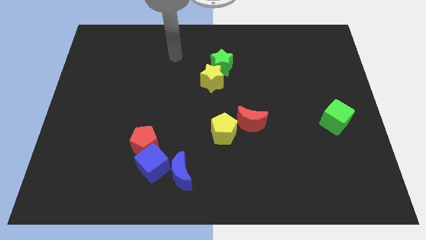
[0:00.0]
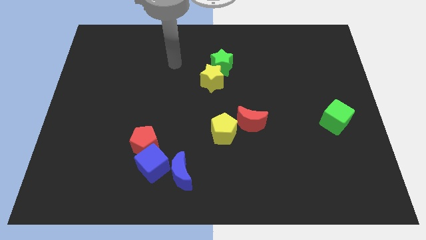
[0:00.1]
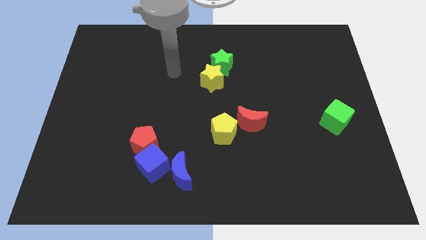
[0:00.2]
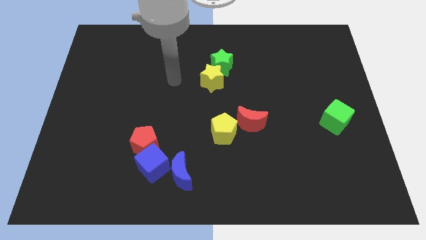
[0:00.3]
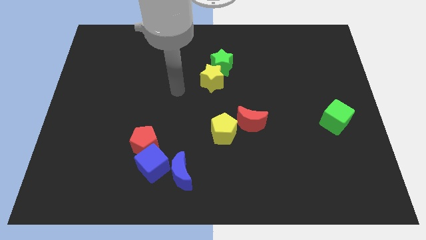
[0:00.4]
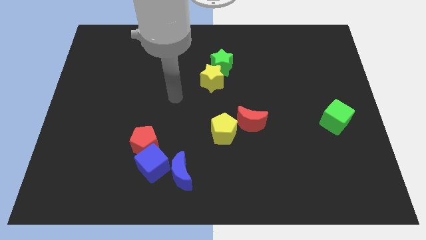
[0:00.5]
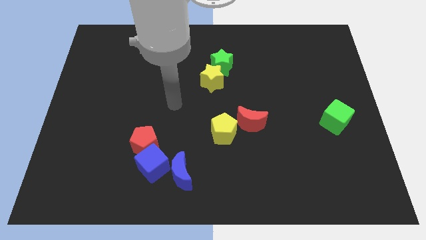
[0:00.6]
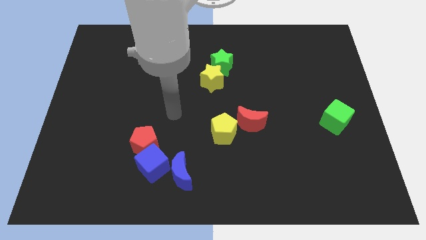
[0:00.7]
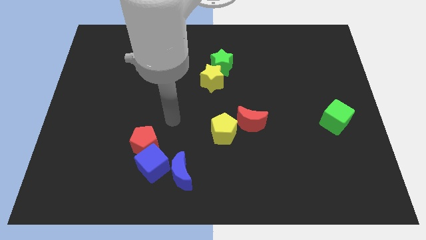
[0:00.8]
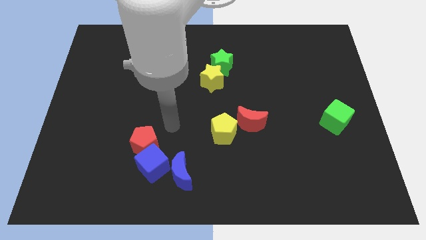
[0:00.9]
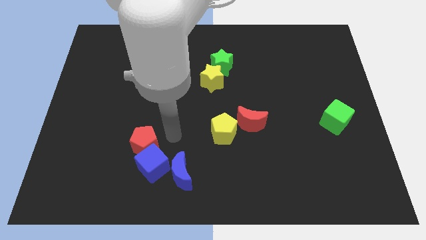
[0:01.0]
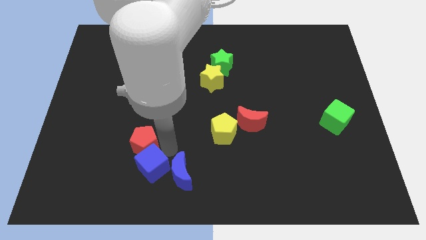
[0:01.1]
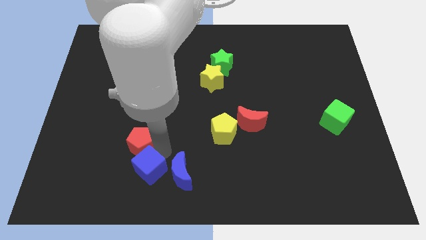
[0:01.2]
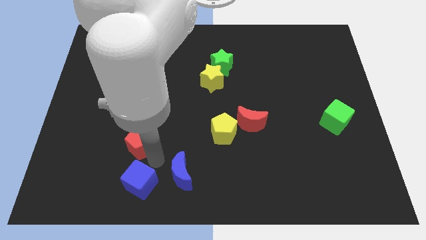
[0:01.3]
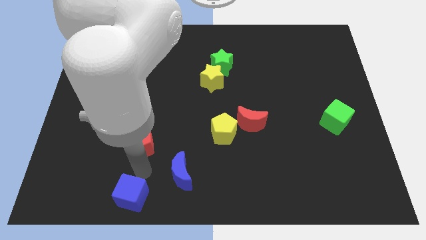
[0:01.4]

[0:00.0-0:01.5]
move the red pentagon away from the blue cube

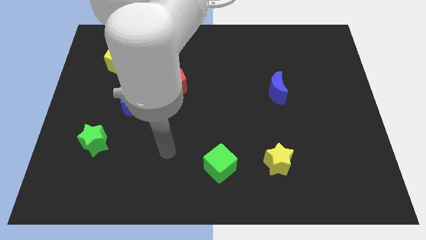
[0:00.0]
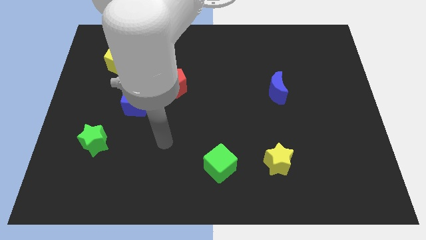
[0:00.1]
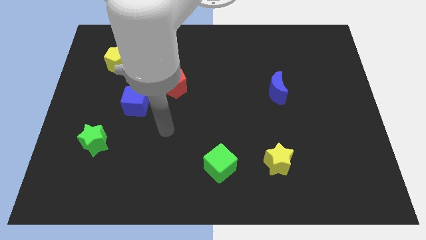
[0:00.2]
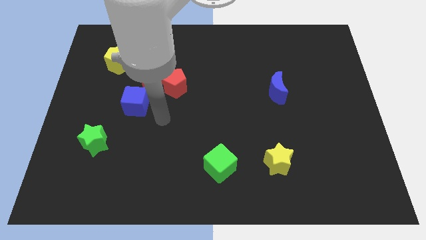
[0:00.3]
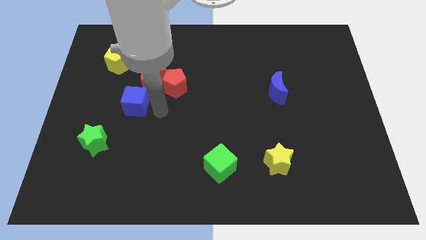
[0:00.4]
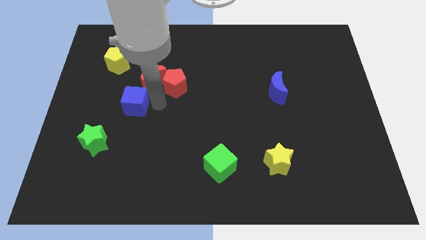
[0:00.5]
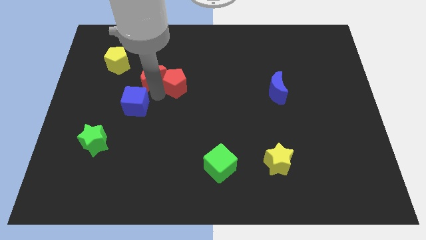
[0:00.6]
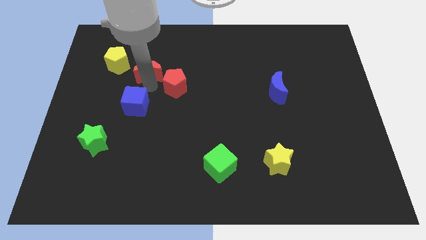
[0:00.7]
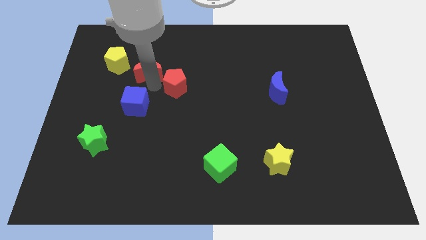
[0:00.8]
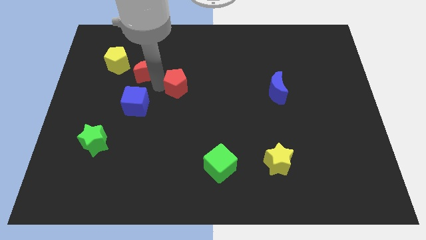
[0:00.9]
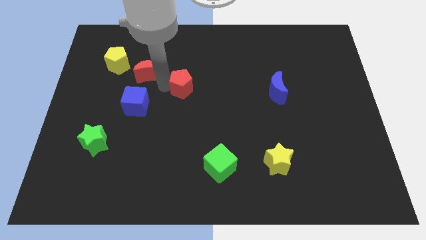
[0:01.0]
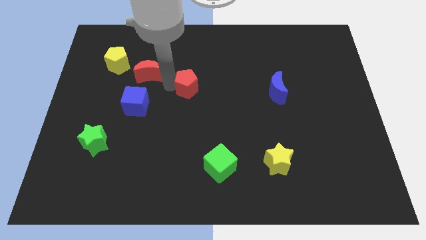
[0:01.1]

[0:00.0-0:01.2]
move the red pentagon away from the red moon

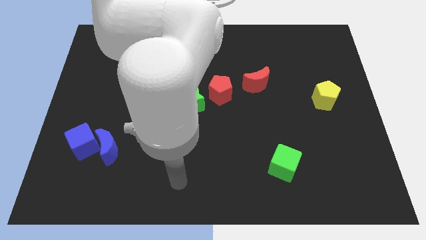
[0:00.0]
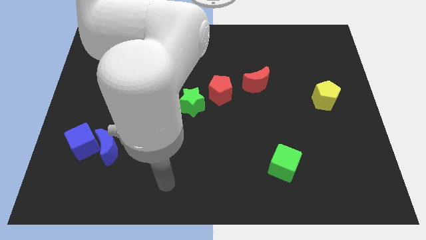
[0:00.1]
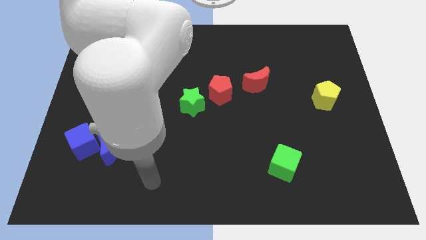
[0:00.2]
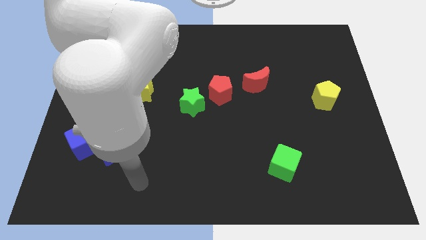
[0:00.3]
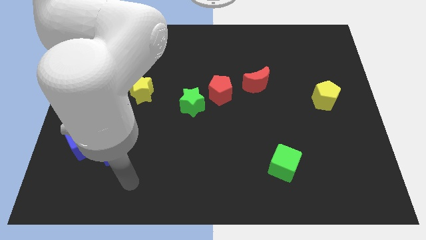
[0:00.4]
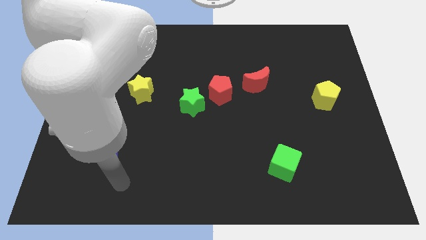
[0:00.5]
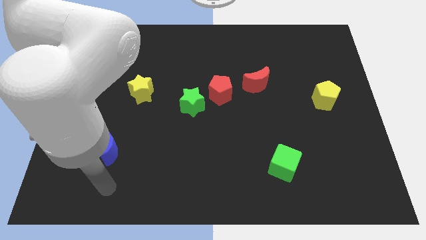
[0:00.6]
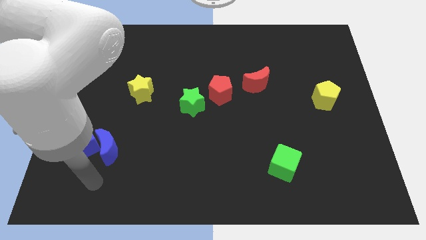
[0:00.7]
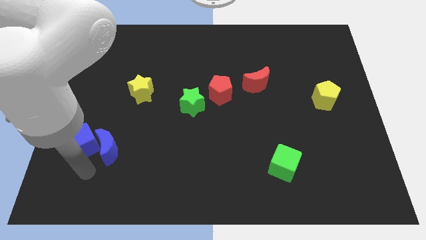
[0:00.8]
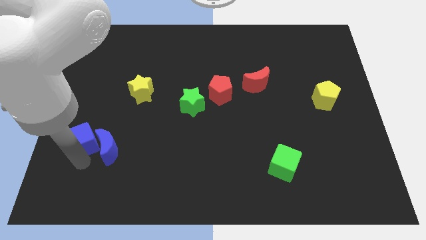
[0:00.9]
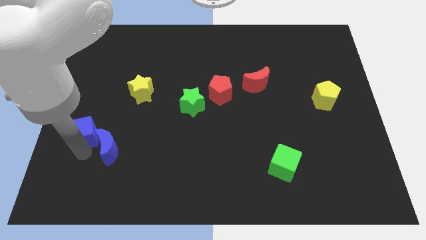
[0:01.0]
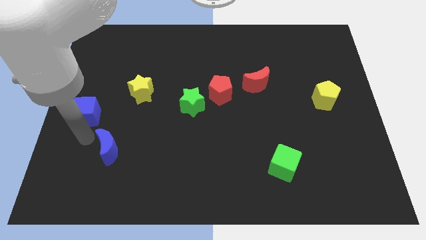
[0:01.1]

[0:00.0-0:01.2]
pull the blue moon apart from the blue cube

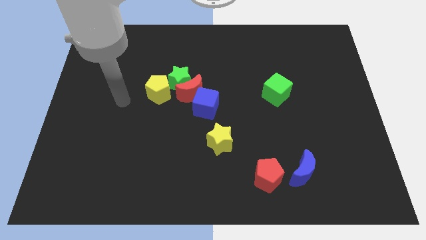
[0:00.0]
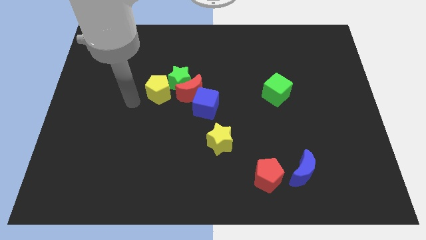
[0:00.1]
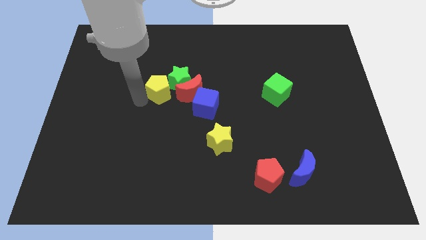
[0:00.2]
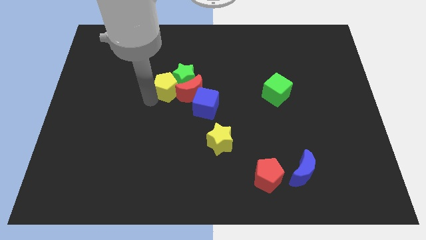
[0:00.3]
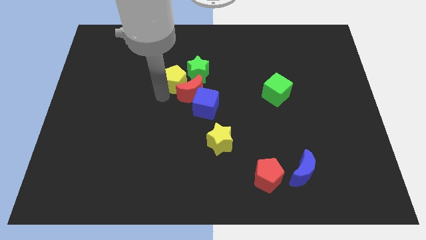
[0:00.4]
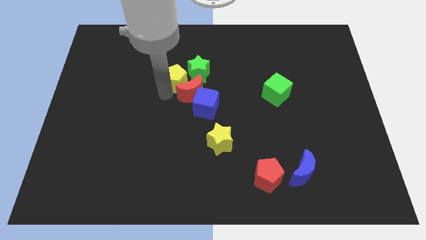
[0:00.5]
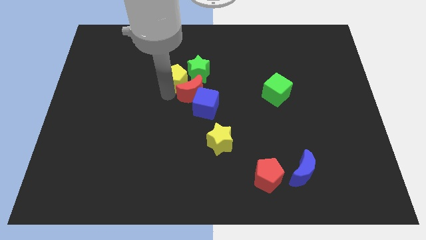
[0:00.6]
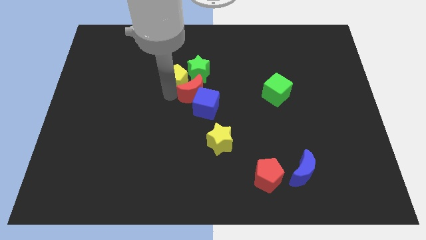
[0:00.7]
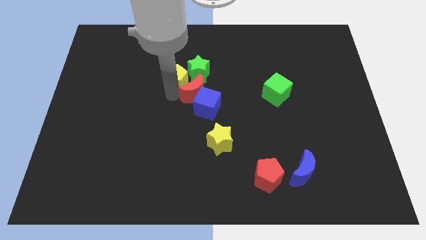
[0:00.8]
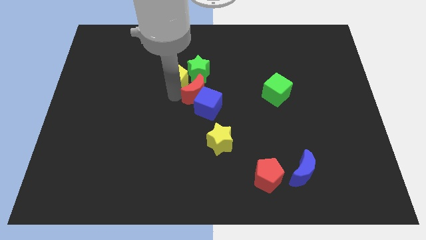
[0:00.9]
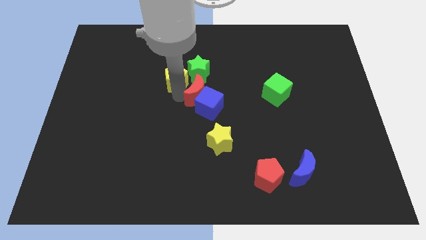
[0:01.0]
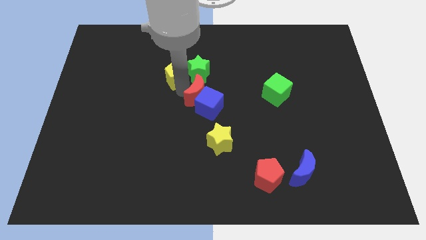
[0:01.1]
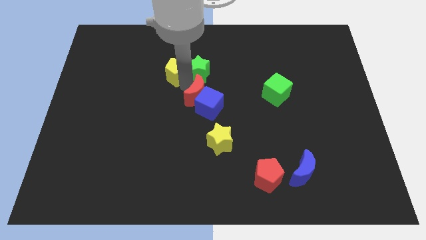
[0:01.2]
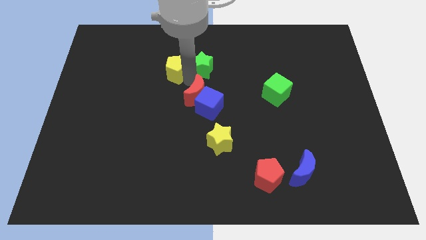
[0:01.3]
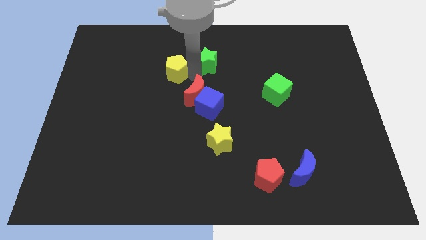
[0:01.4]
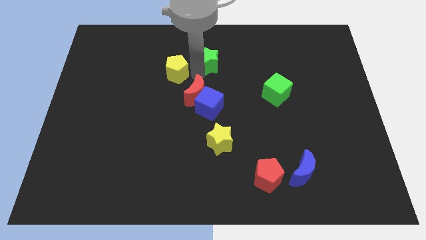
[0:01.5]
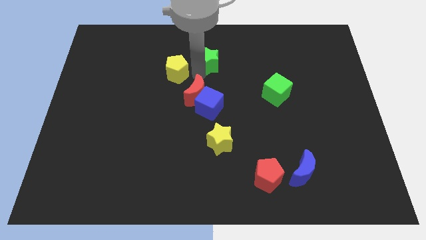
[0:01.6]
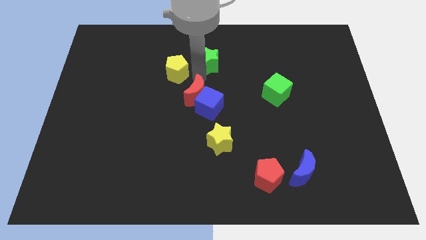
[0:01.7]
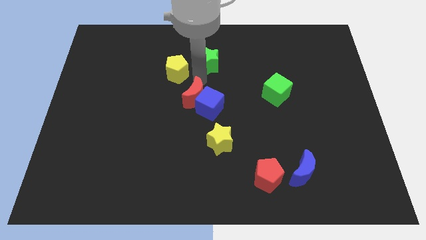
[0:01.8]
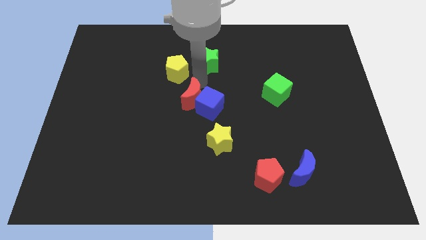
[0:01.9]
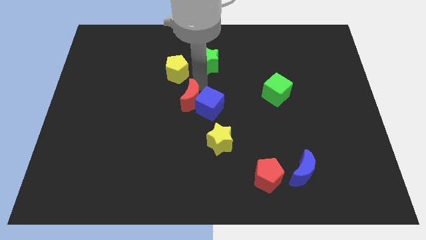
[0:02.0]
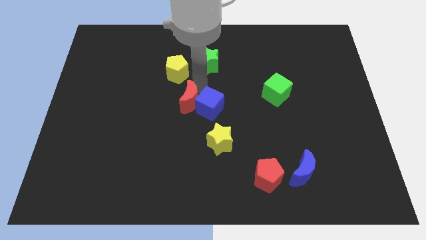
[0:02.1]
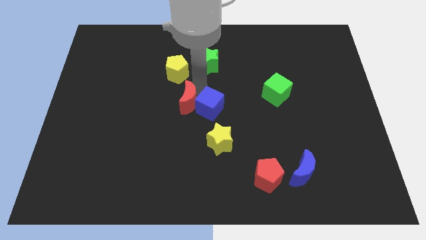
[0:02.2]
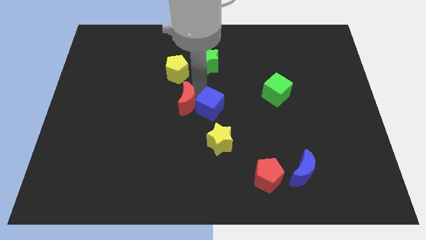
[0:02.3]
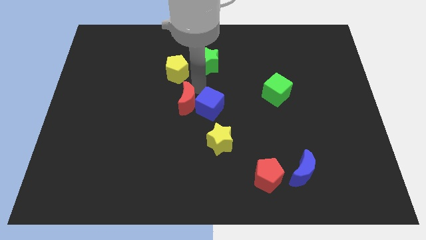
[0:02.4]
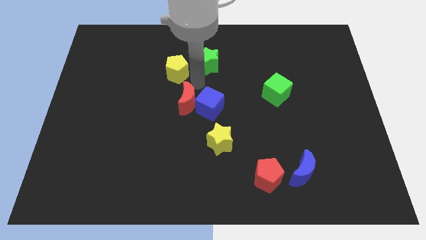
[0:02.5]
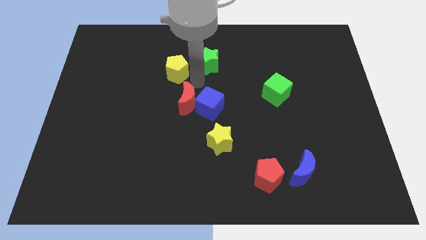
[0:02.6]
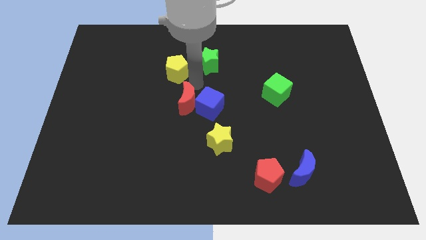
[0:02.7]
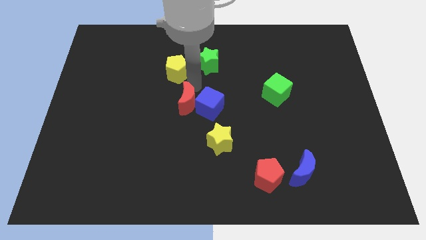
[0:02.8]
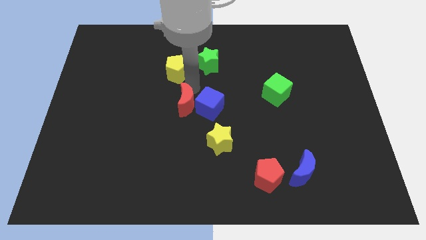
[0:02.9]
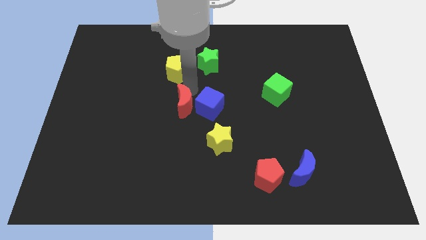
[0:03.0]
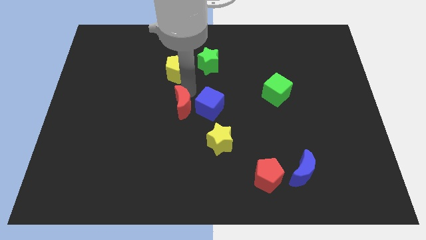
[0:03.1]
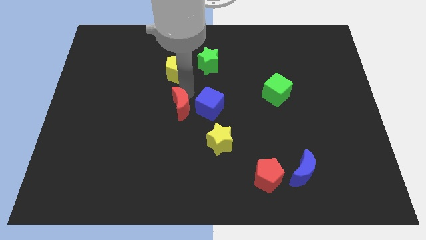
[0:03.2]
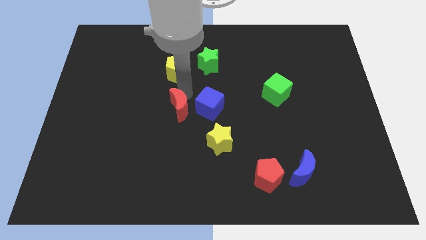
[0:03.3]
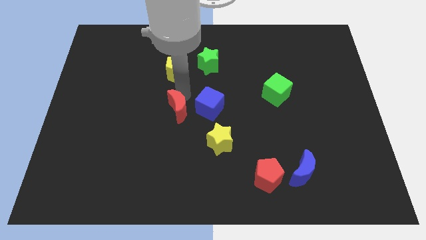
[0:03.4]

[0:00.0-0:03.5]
pull the red moon apart from the clump

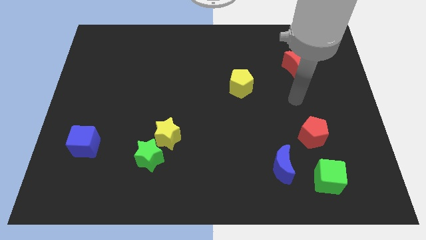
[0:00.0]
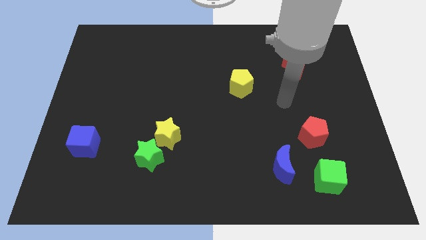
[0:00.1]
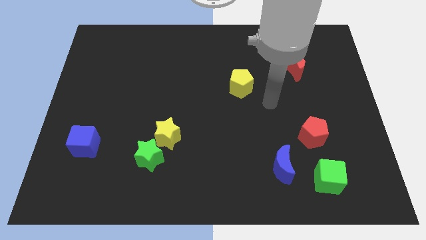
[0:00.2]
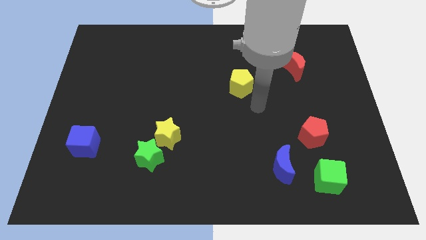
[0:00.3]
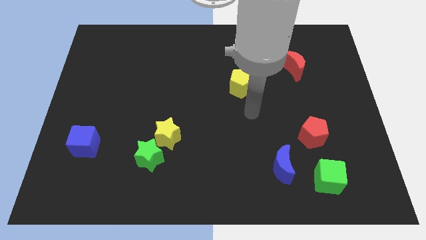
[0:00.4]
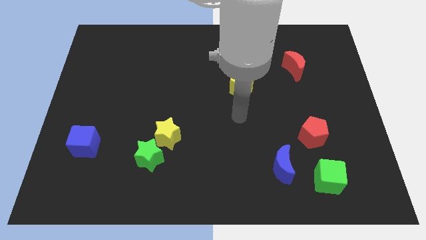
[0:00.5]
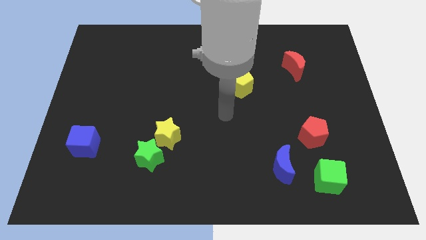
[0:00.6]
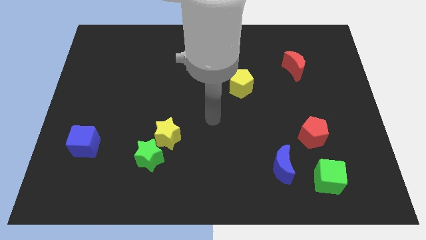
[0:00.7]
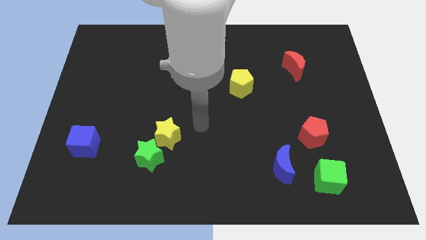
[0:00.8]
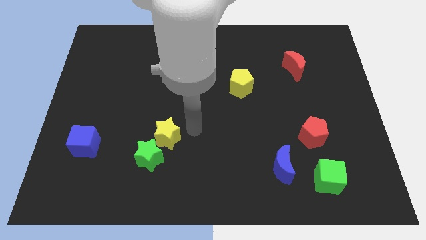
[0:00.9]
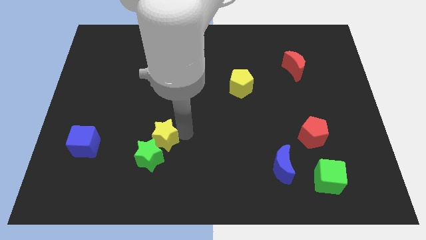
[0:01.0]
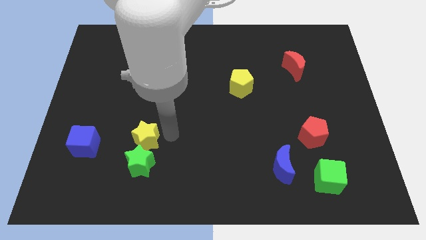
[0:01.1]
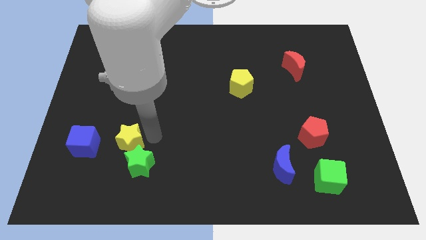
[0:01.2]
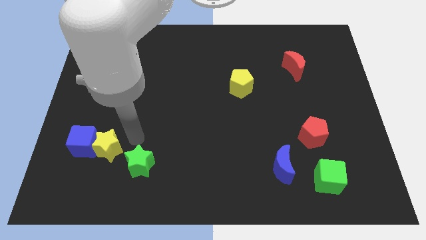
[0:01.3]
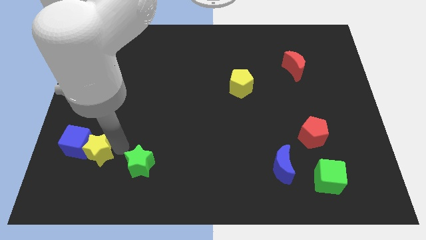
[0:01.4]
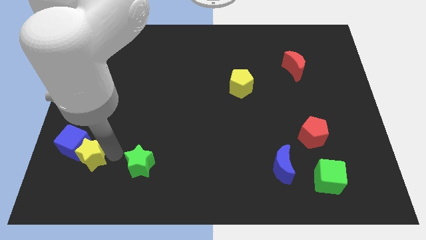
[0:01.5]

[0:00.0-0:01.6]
move the green star away from the yellow star

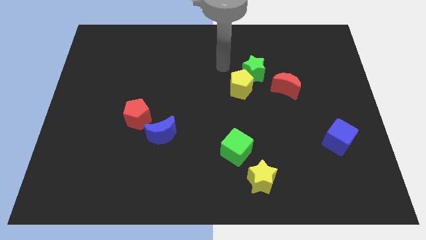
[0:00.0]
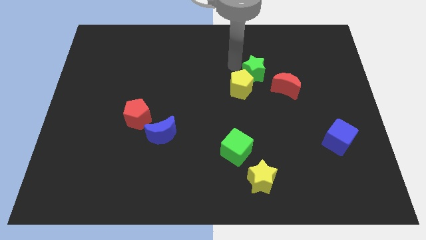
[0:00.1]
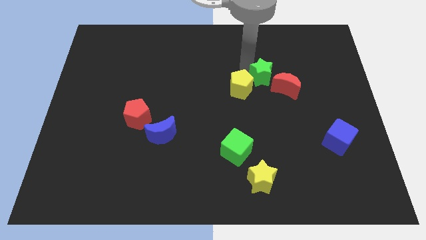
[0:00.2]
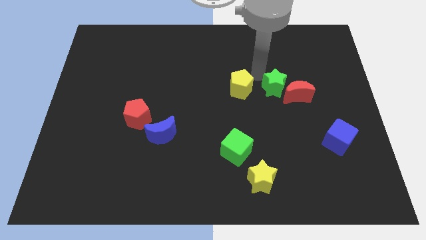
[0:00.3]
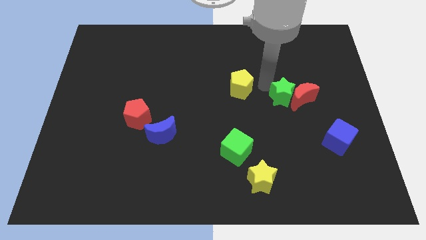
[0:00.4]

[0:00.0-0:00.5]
move the yellow pentagon away from the green star
